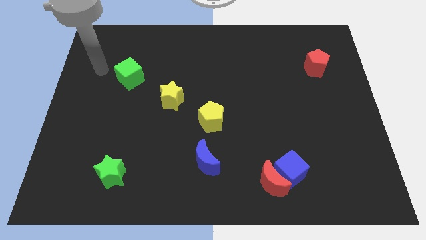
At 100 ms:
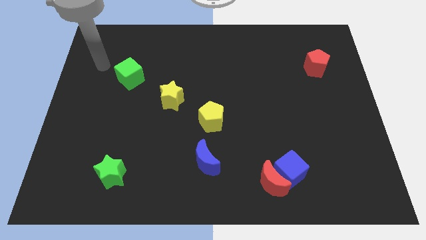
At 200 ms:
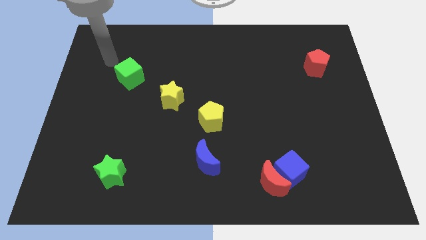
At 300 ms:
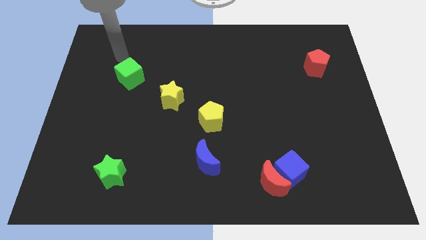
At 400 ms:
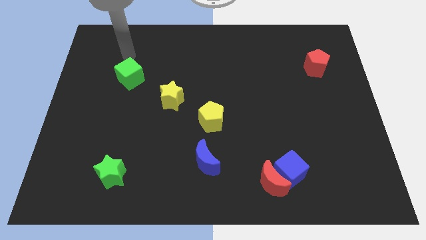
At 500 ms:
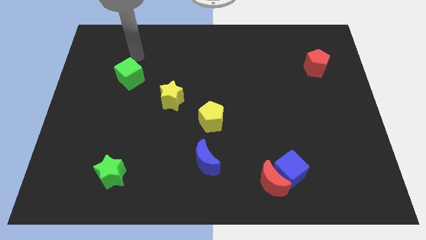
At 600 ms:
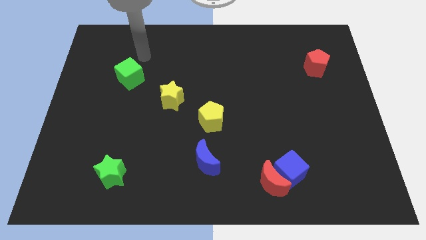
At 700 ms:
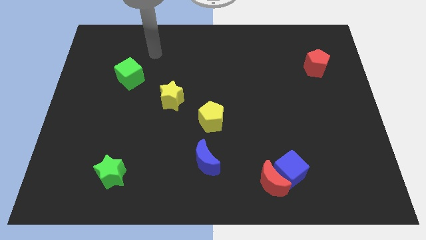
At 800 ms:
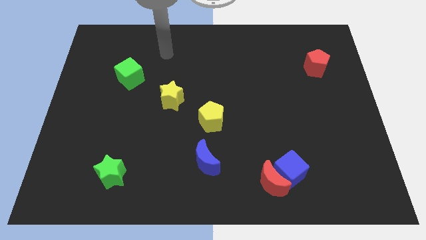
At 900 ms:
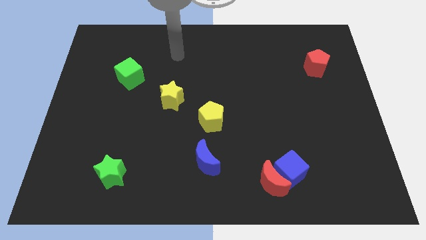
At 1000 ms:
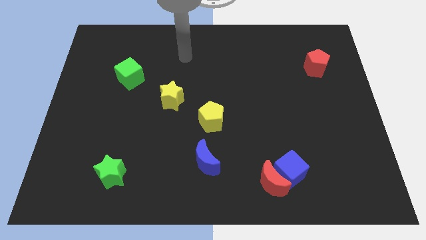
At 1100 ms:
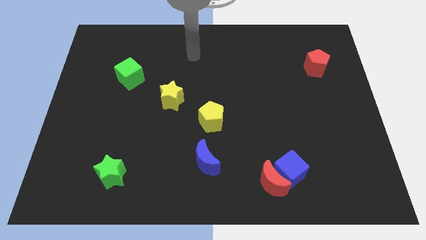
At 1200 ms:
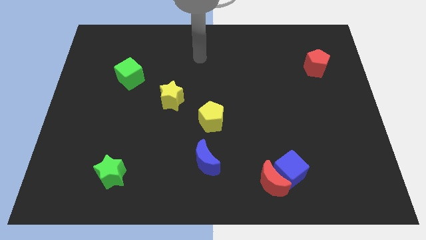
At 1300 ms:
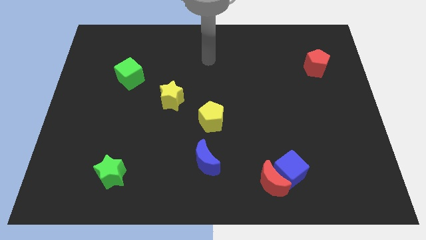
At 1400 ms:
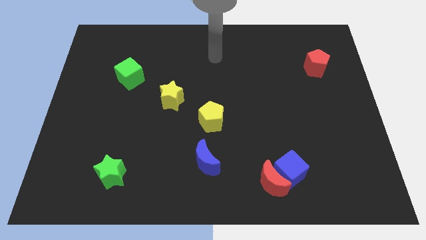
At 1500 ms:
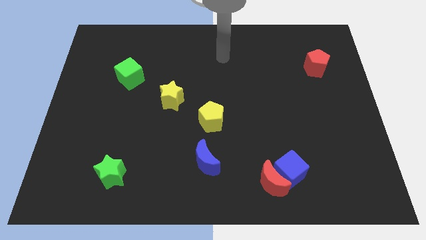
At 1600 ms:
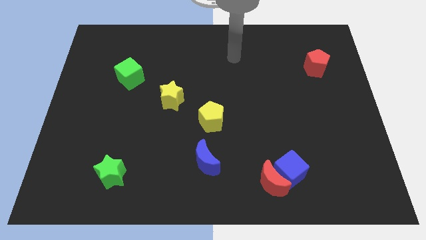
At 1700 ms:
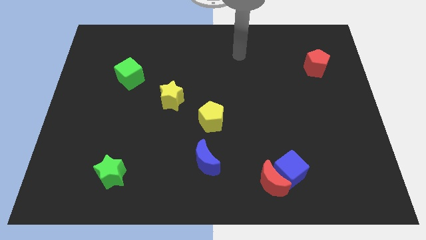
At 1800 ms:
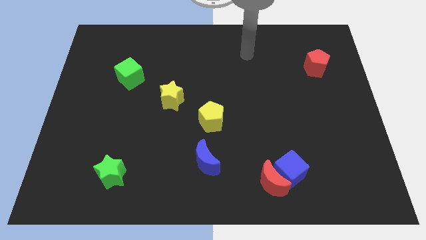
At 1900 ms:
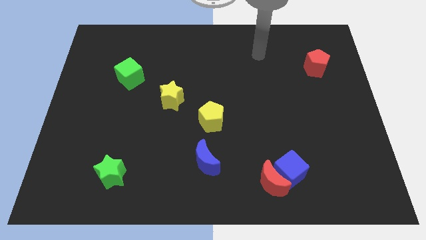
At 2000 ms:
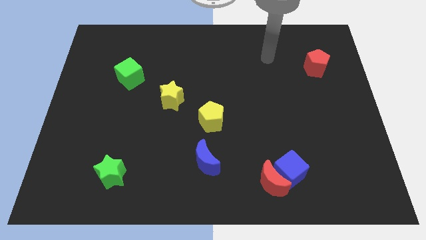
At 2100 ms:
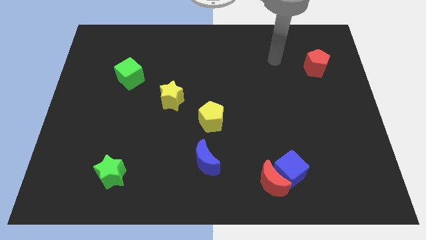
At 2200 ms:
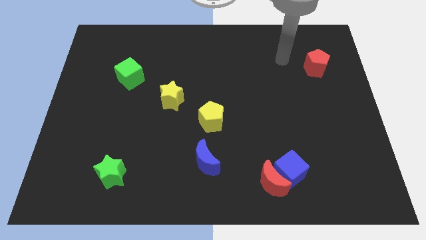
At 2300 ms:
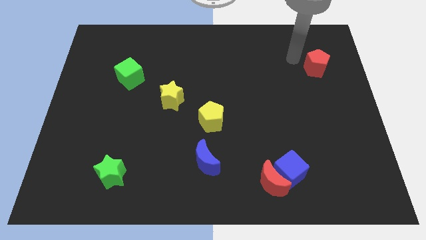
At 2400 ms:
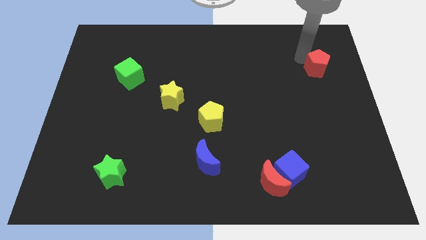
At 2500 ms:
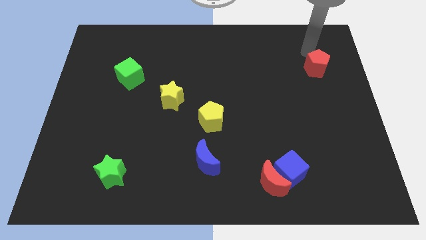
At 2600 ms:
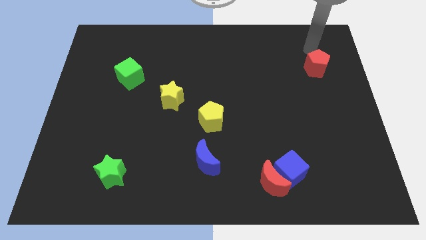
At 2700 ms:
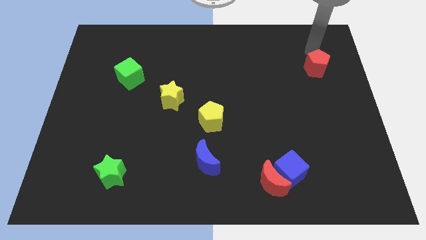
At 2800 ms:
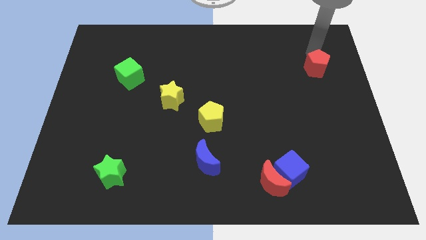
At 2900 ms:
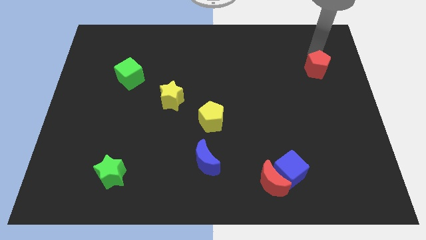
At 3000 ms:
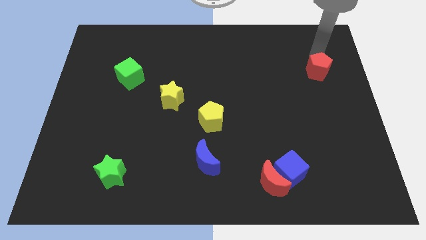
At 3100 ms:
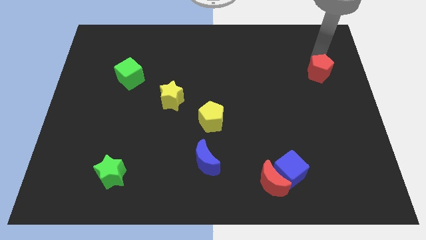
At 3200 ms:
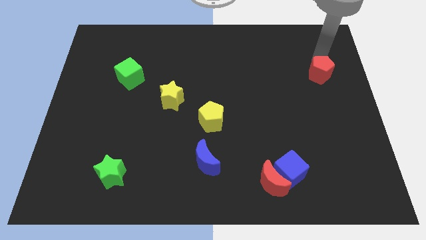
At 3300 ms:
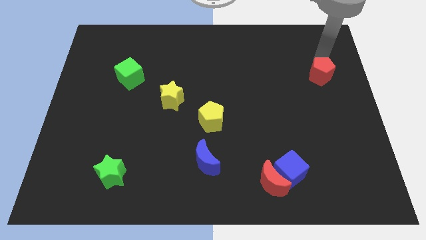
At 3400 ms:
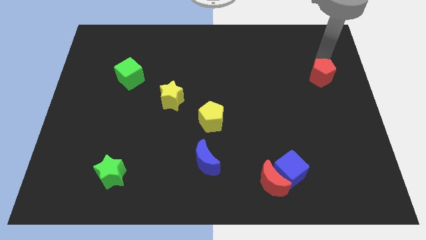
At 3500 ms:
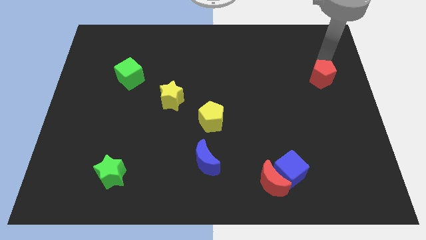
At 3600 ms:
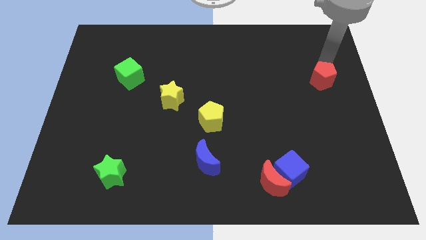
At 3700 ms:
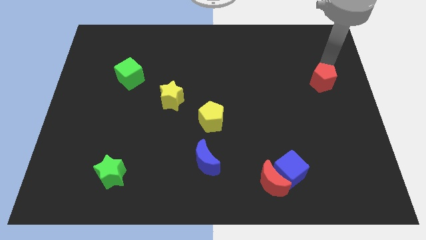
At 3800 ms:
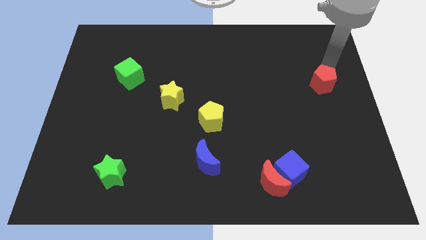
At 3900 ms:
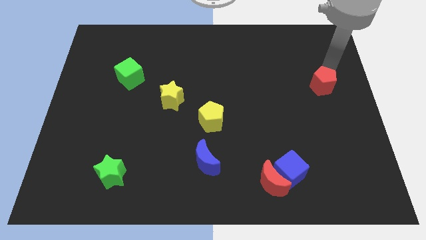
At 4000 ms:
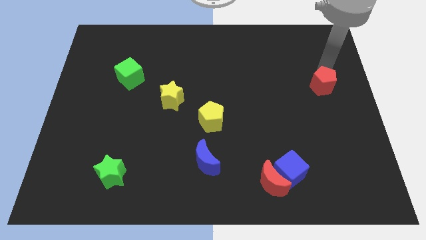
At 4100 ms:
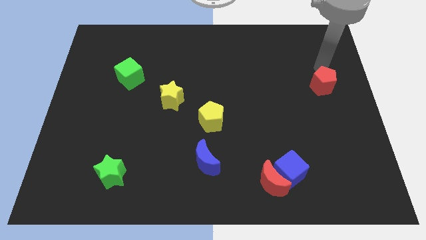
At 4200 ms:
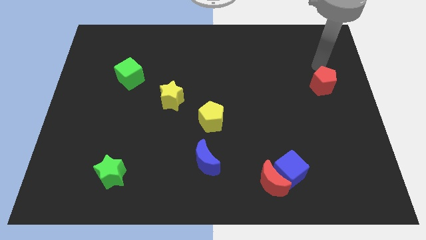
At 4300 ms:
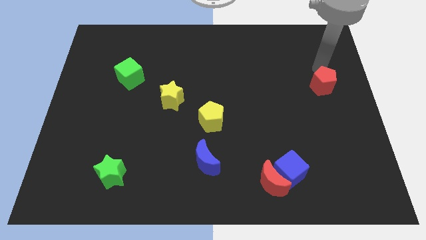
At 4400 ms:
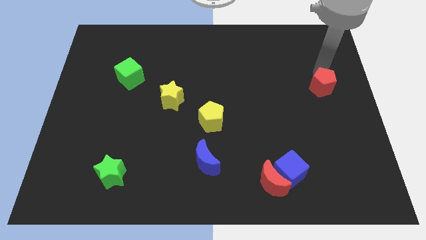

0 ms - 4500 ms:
push the red pentagon somewhat downwards

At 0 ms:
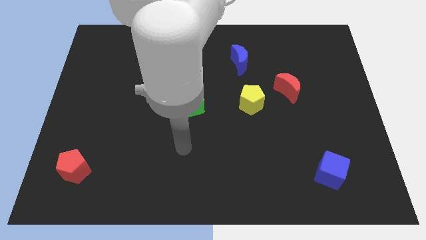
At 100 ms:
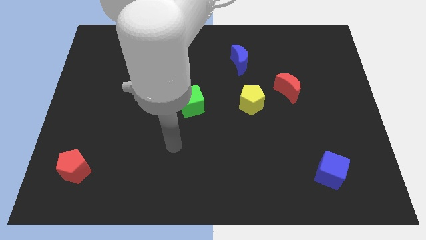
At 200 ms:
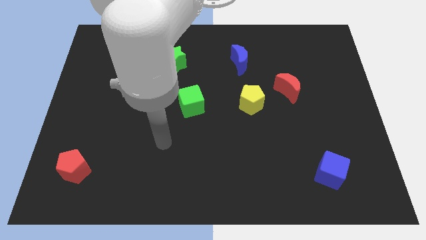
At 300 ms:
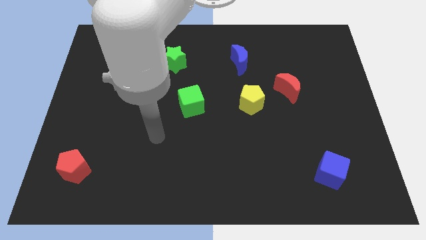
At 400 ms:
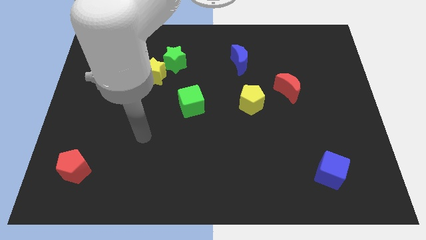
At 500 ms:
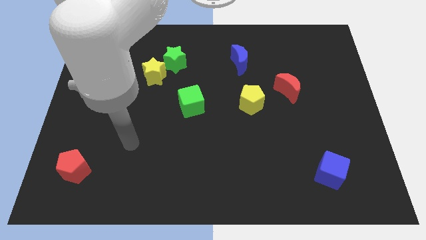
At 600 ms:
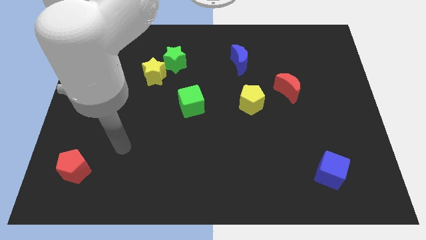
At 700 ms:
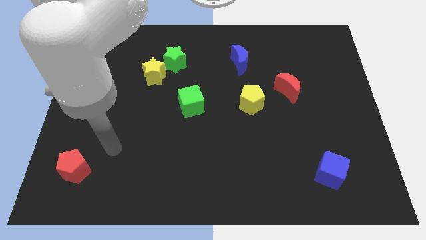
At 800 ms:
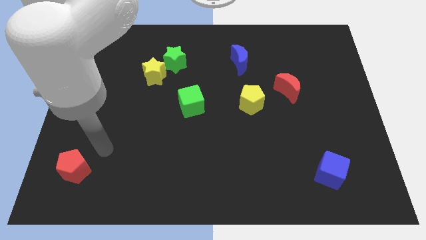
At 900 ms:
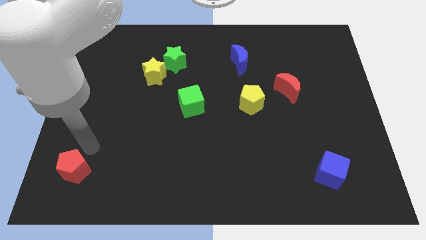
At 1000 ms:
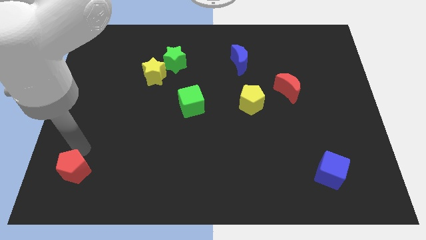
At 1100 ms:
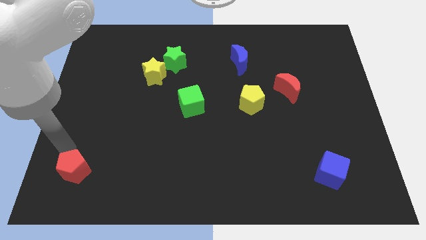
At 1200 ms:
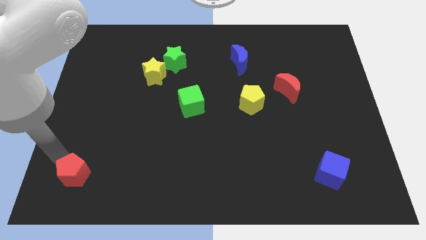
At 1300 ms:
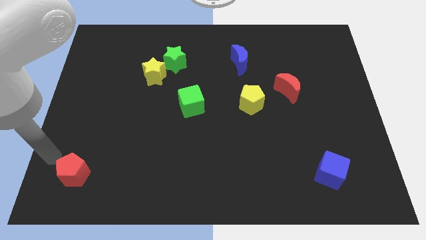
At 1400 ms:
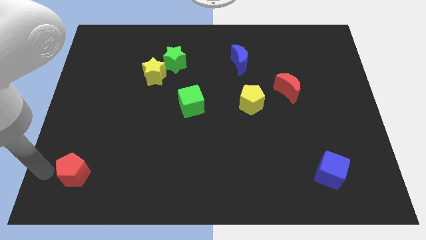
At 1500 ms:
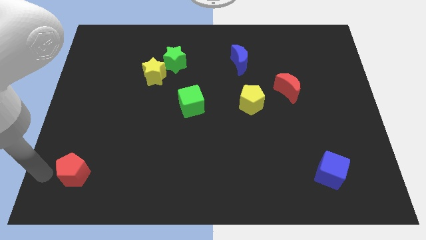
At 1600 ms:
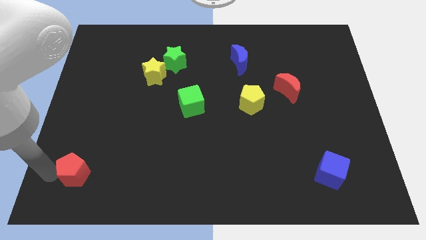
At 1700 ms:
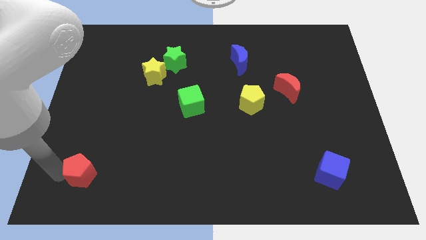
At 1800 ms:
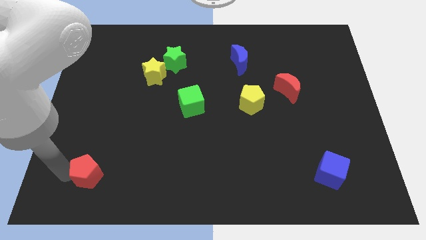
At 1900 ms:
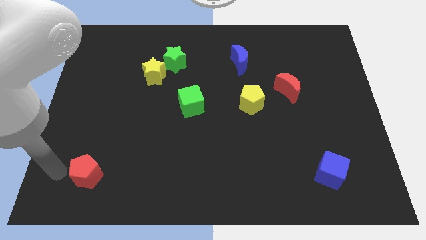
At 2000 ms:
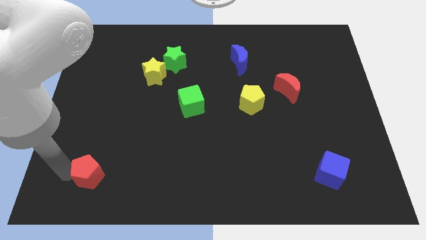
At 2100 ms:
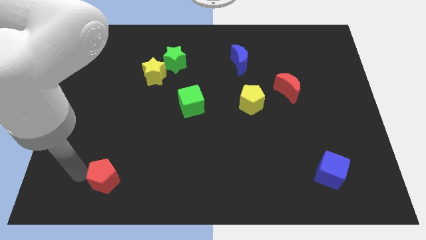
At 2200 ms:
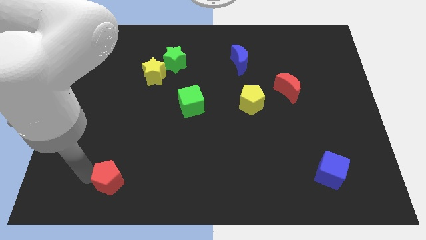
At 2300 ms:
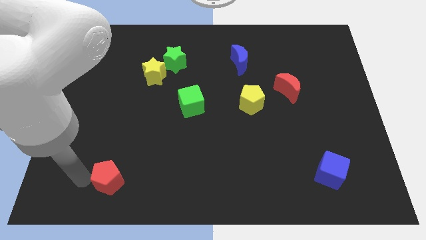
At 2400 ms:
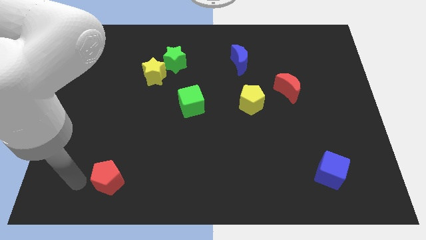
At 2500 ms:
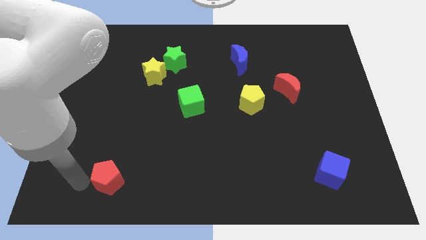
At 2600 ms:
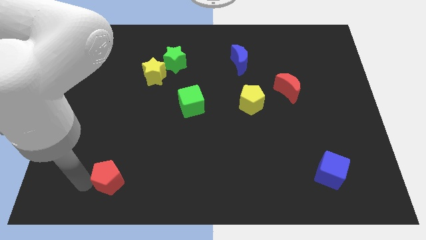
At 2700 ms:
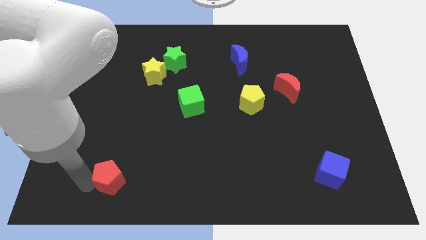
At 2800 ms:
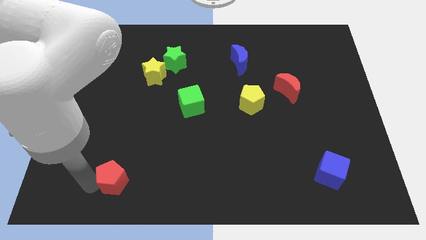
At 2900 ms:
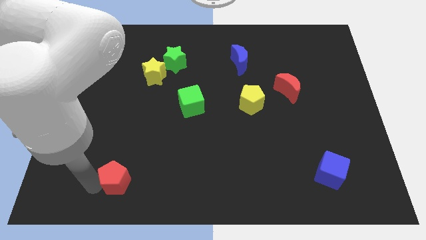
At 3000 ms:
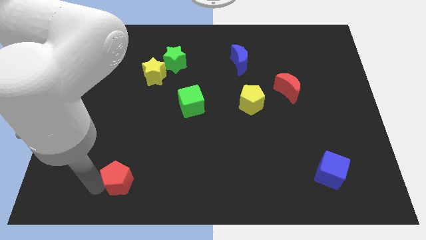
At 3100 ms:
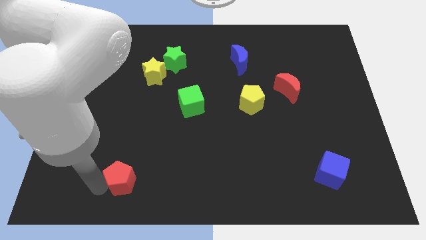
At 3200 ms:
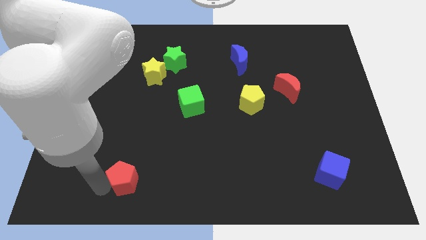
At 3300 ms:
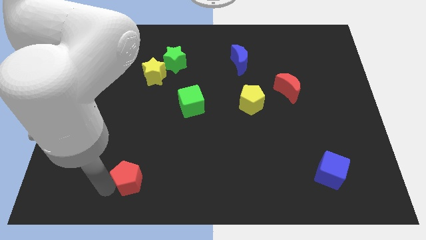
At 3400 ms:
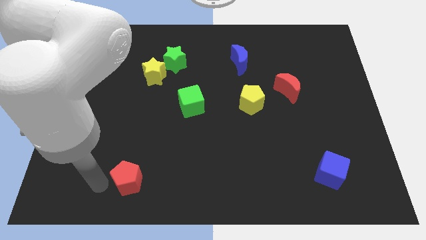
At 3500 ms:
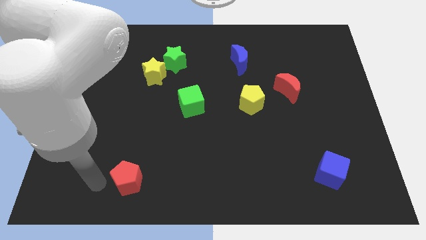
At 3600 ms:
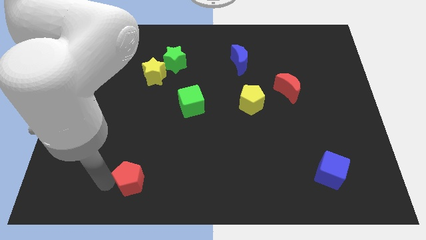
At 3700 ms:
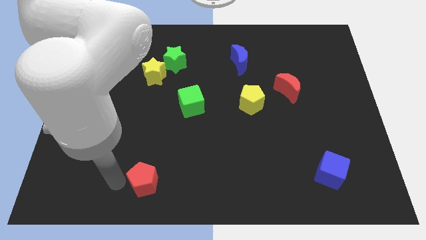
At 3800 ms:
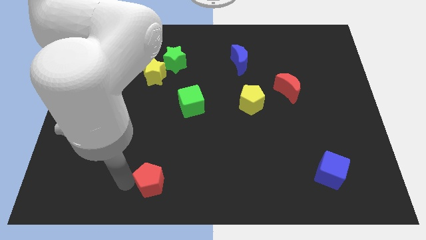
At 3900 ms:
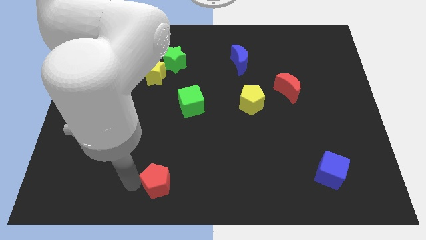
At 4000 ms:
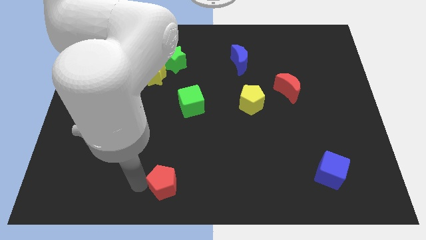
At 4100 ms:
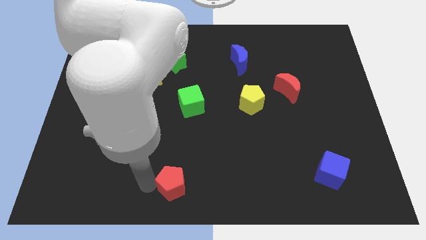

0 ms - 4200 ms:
slide the red pentagon to the right
